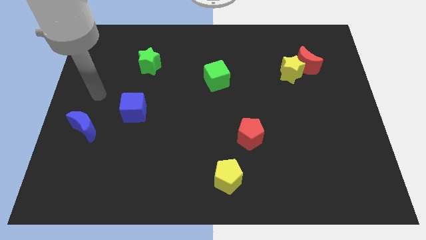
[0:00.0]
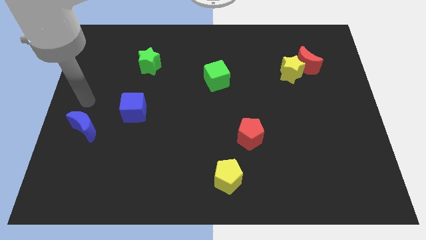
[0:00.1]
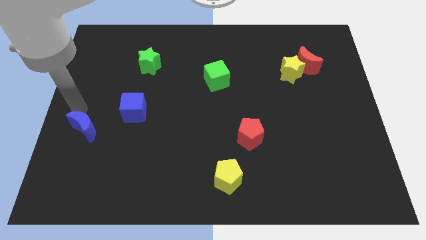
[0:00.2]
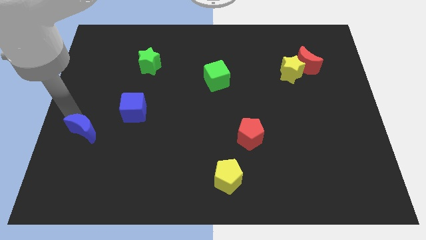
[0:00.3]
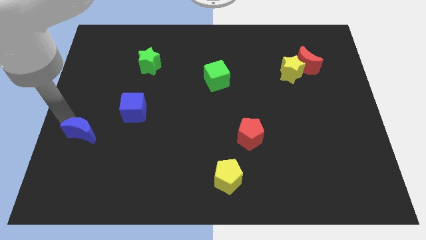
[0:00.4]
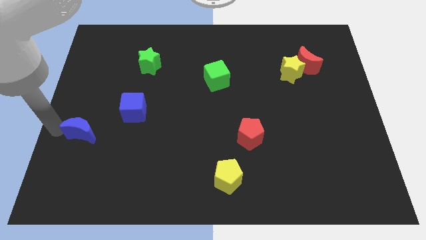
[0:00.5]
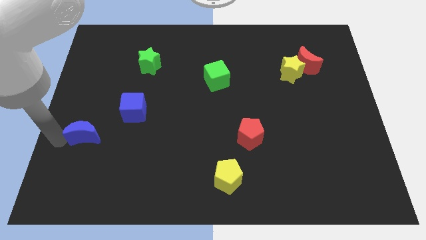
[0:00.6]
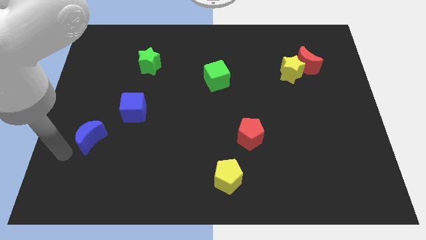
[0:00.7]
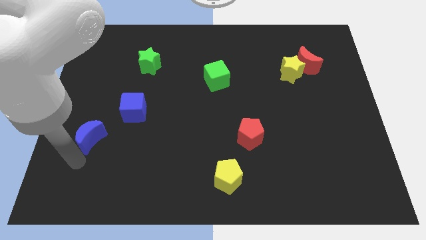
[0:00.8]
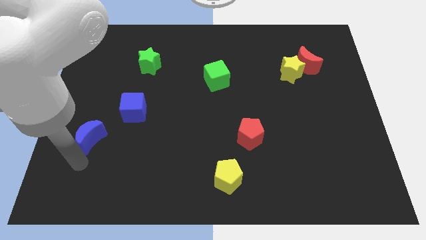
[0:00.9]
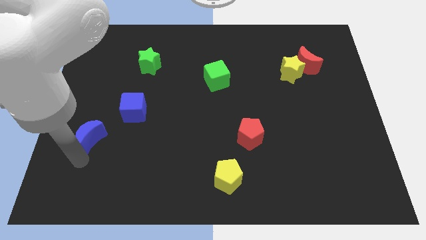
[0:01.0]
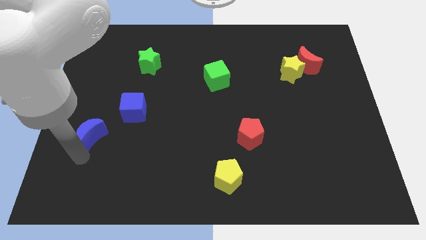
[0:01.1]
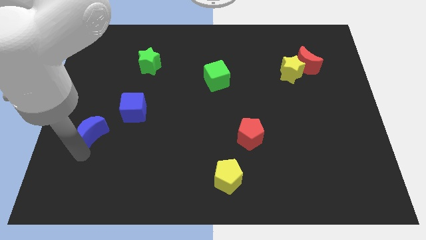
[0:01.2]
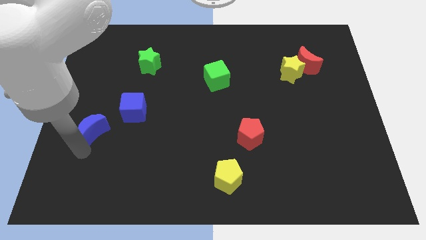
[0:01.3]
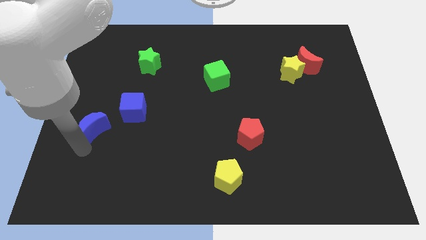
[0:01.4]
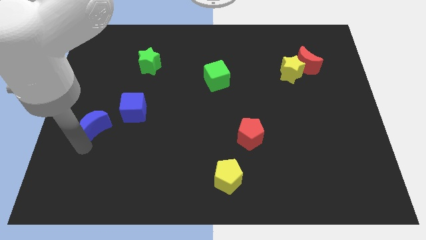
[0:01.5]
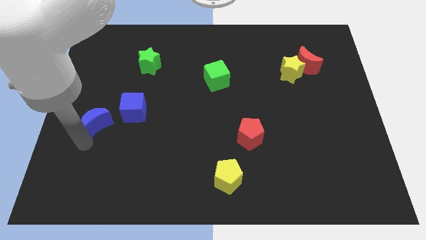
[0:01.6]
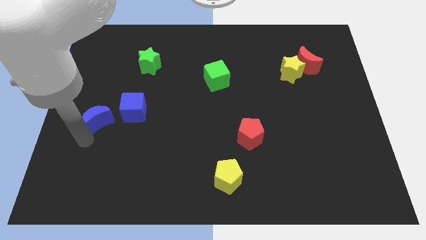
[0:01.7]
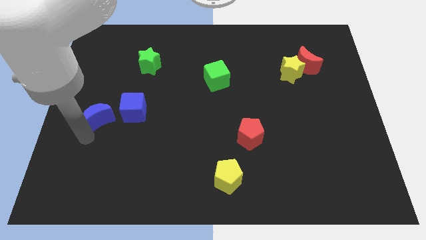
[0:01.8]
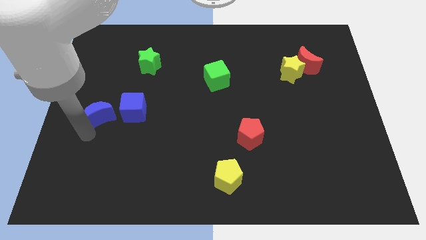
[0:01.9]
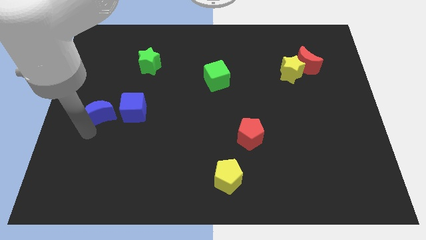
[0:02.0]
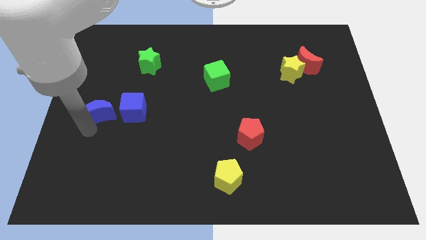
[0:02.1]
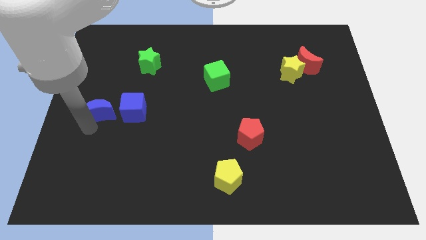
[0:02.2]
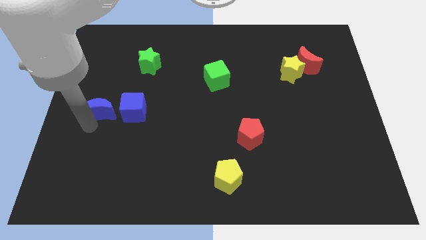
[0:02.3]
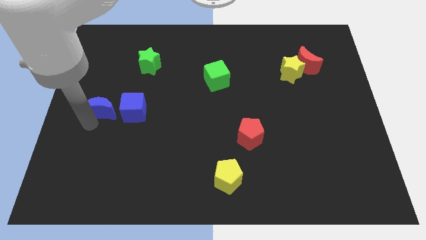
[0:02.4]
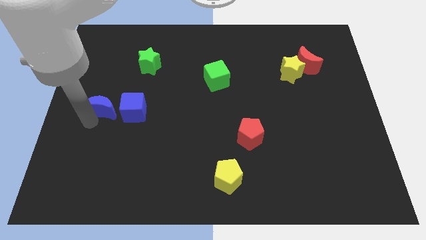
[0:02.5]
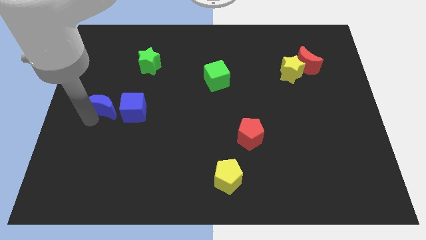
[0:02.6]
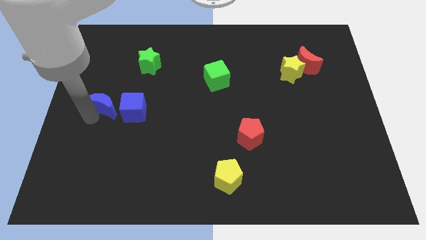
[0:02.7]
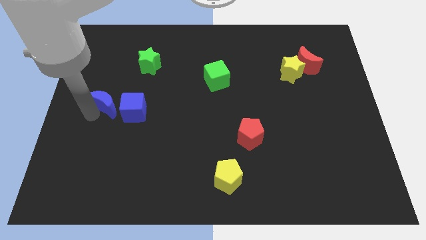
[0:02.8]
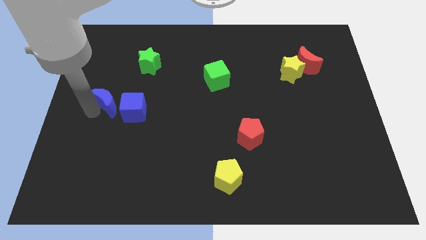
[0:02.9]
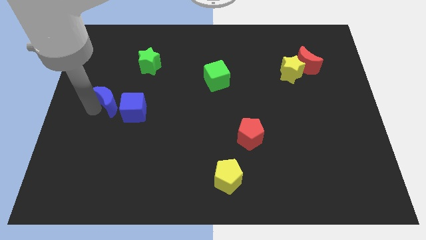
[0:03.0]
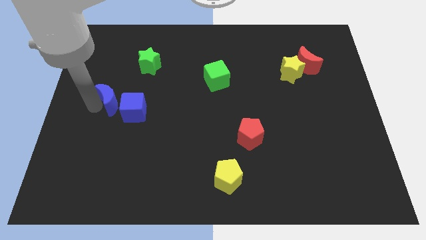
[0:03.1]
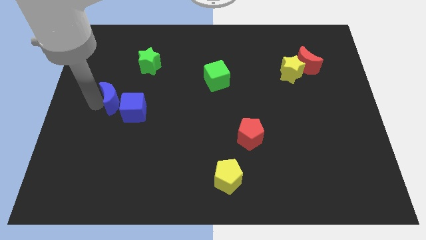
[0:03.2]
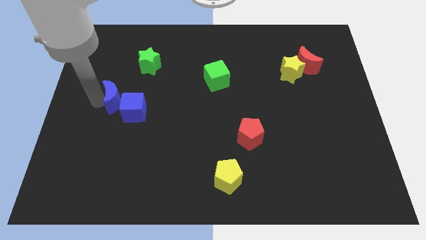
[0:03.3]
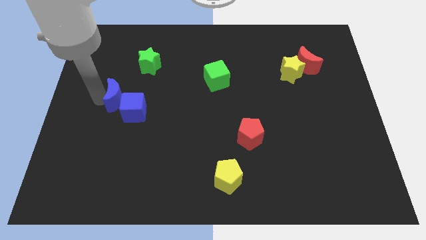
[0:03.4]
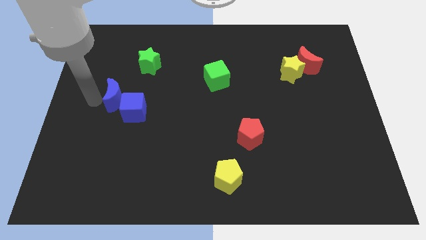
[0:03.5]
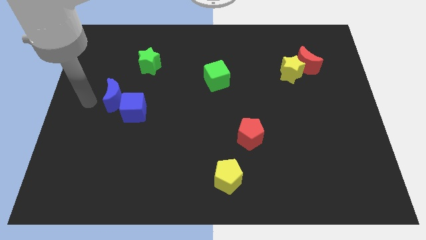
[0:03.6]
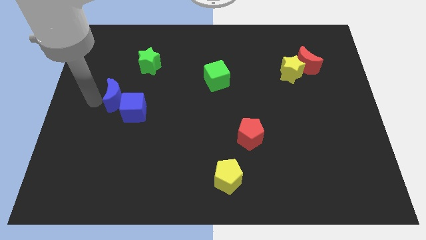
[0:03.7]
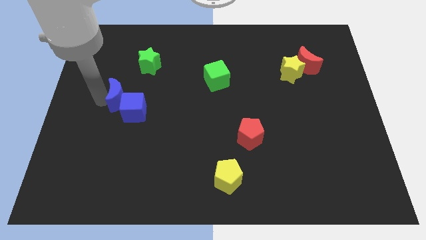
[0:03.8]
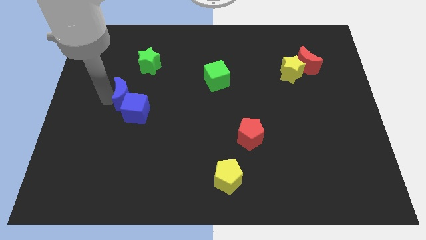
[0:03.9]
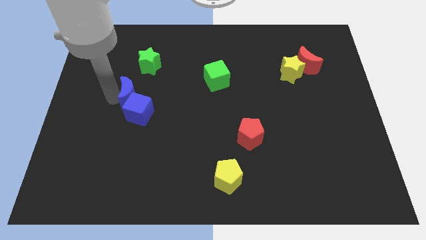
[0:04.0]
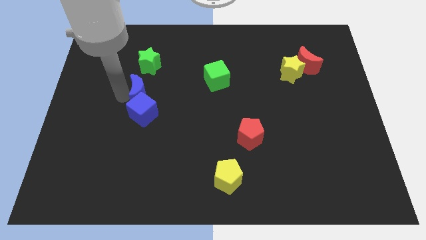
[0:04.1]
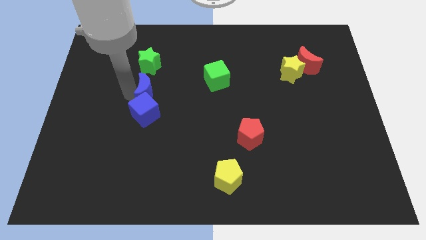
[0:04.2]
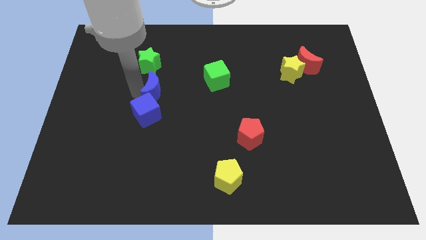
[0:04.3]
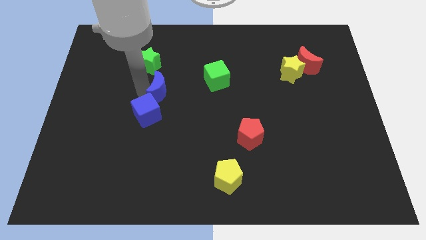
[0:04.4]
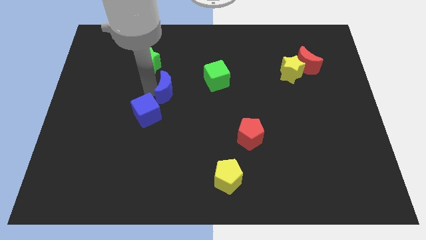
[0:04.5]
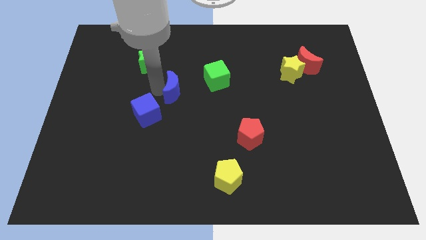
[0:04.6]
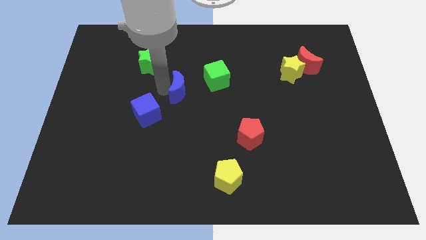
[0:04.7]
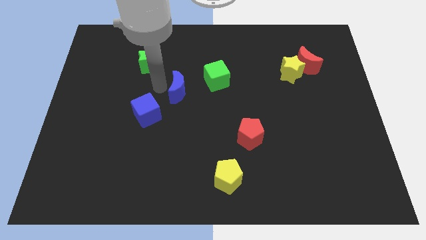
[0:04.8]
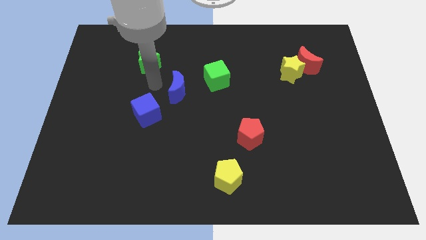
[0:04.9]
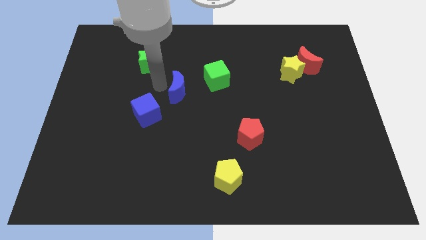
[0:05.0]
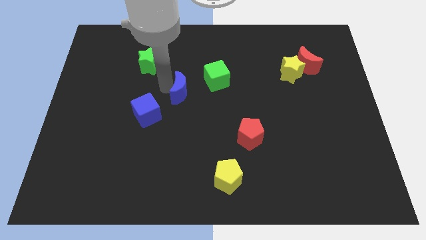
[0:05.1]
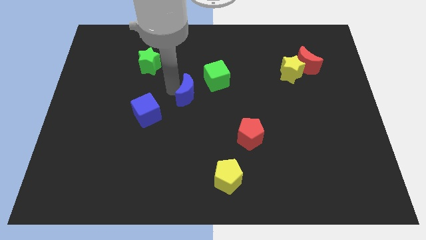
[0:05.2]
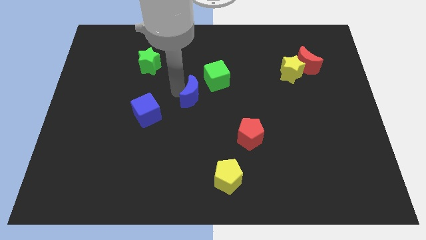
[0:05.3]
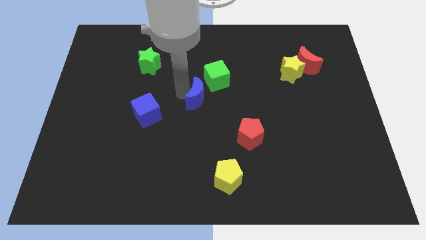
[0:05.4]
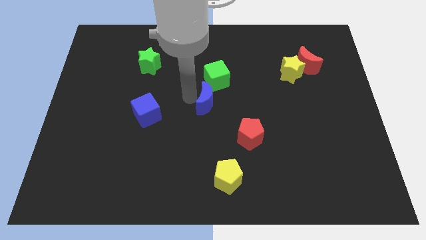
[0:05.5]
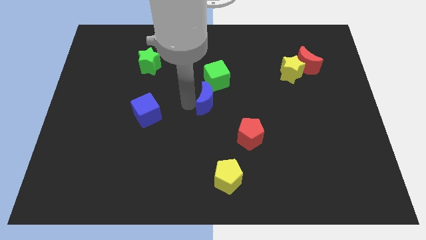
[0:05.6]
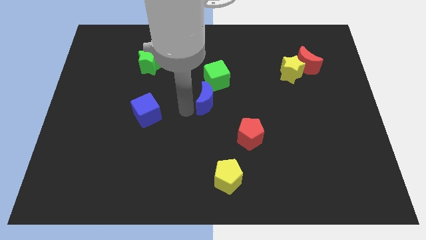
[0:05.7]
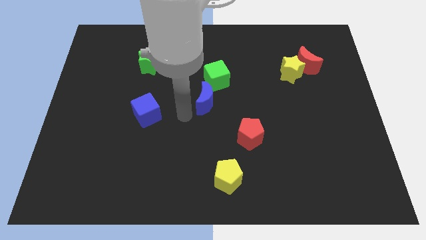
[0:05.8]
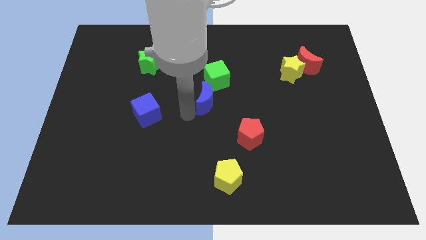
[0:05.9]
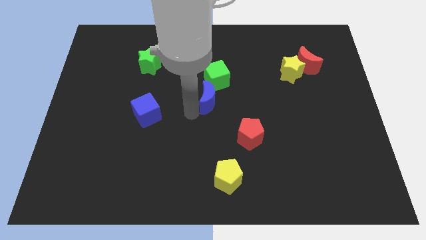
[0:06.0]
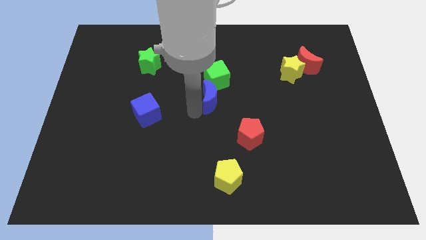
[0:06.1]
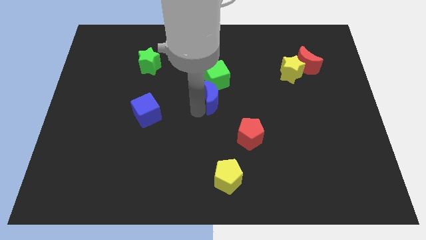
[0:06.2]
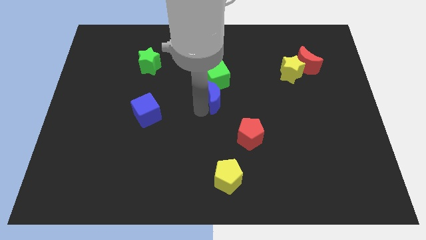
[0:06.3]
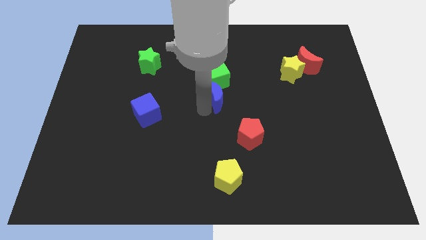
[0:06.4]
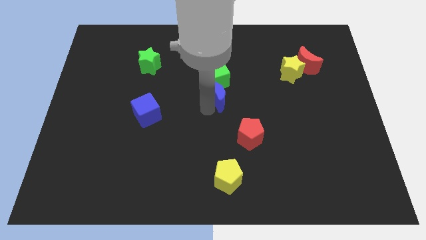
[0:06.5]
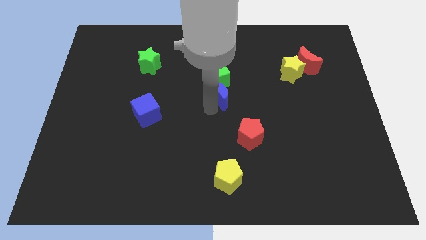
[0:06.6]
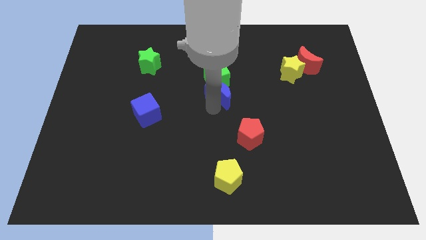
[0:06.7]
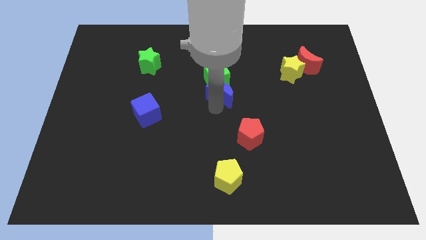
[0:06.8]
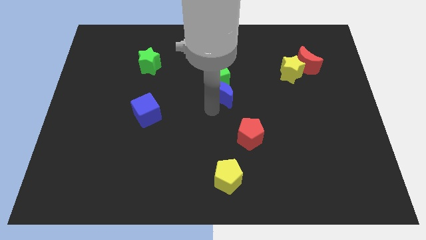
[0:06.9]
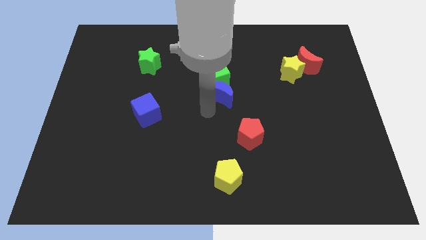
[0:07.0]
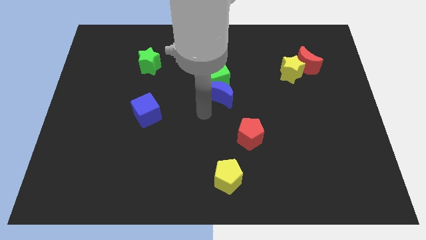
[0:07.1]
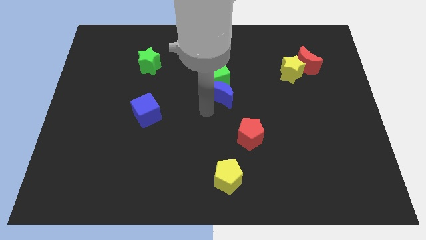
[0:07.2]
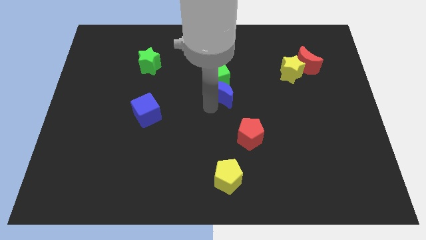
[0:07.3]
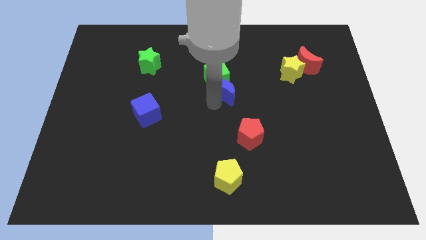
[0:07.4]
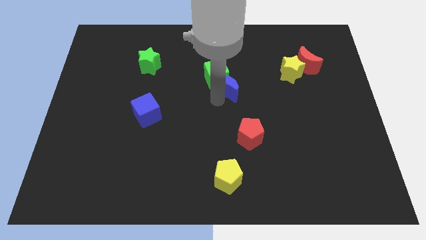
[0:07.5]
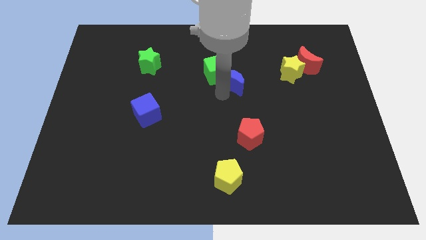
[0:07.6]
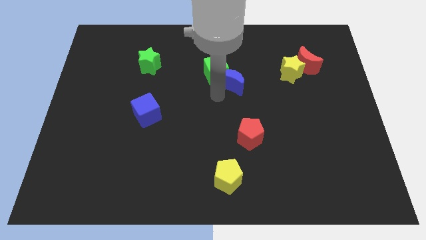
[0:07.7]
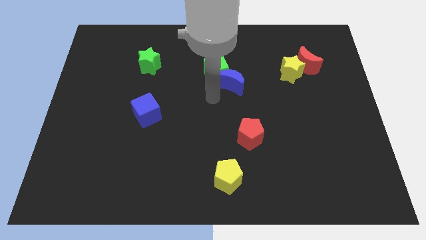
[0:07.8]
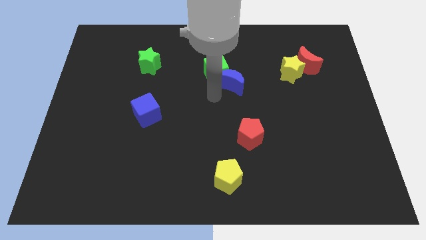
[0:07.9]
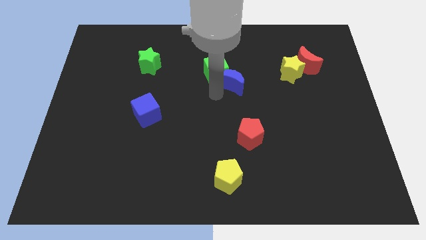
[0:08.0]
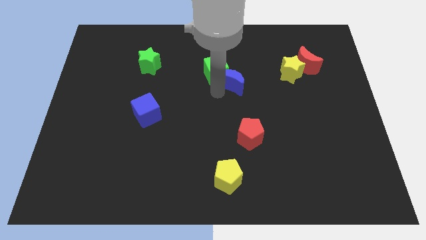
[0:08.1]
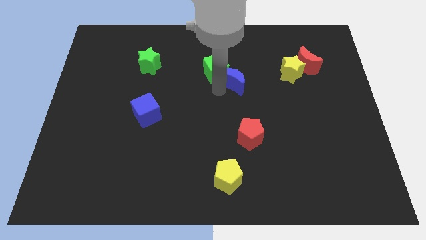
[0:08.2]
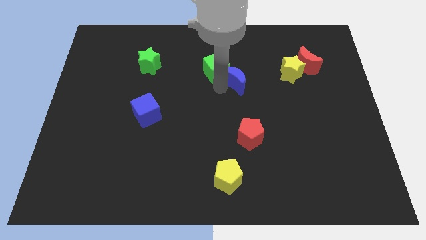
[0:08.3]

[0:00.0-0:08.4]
slide the blue moon left of the yellow star

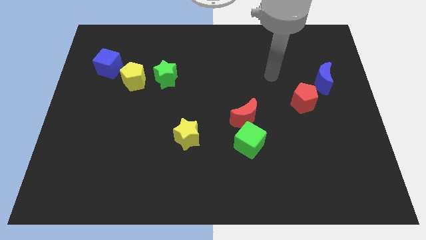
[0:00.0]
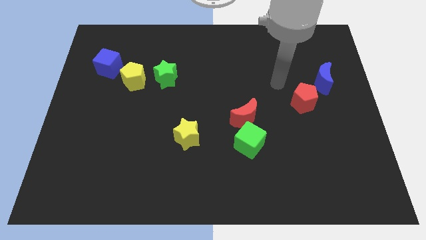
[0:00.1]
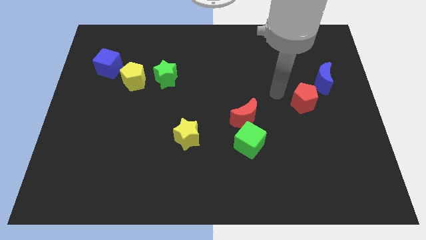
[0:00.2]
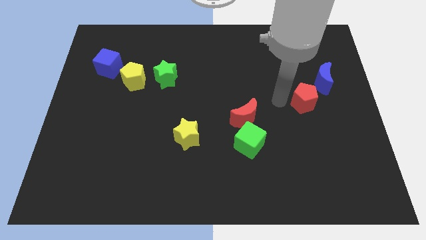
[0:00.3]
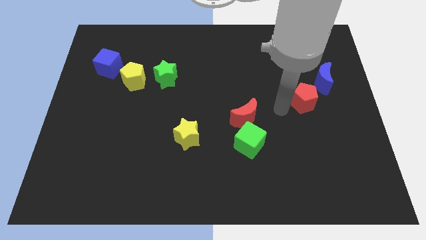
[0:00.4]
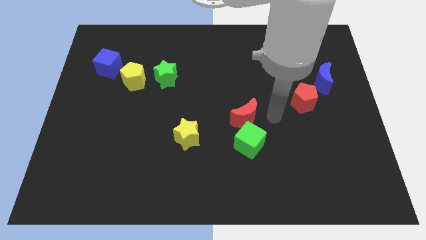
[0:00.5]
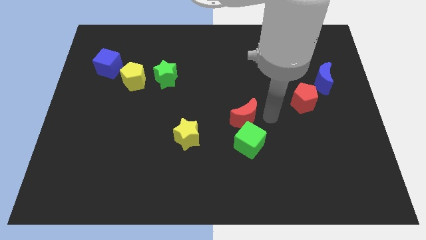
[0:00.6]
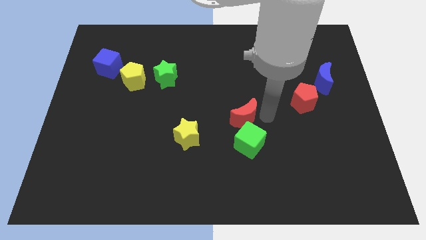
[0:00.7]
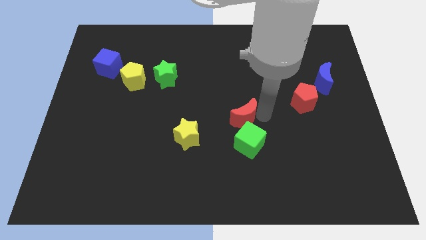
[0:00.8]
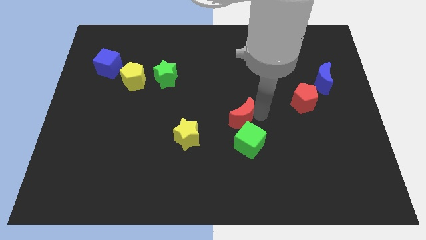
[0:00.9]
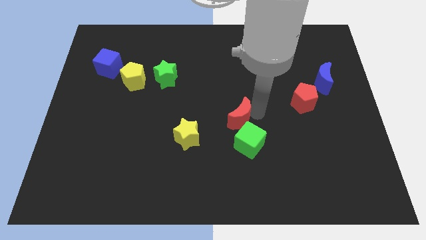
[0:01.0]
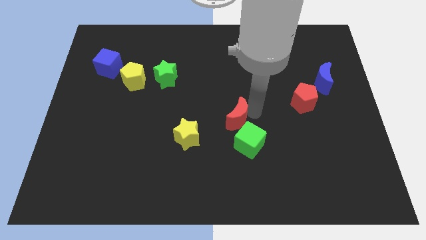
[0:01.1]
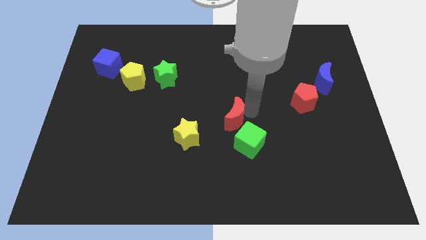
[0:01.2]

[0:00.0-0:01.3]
push the red moon to the top right of the yellow star
